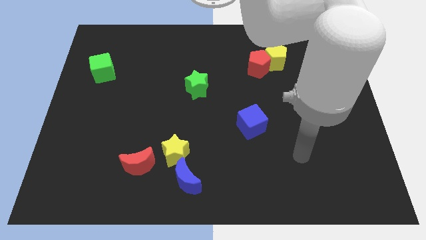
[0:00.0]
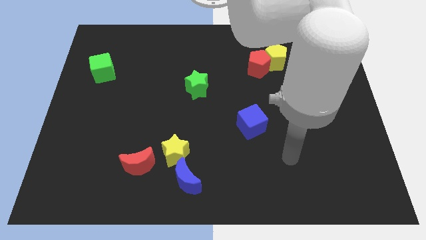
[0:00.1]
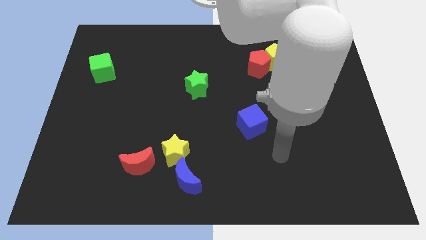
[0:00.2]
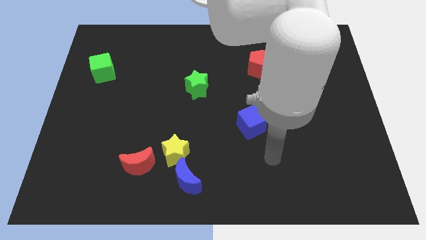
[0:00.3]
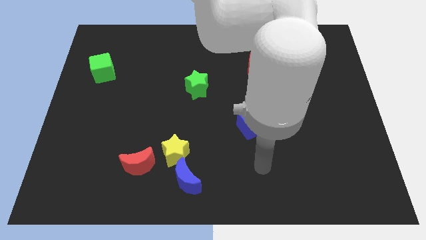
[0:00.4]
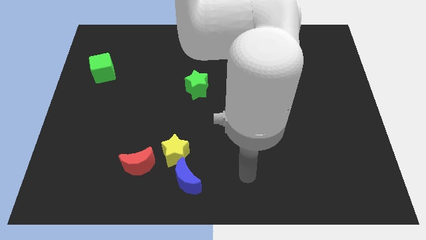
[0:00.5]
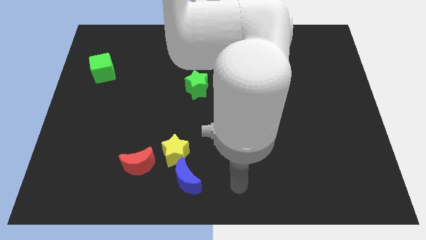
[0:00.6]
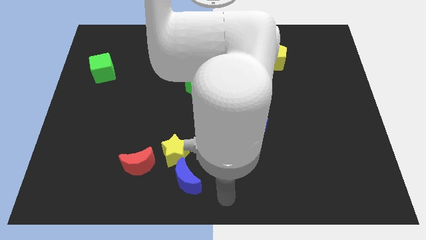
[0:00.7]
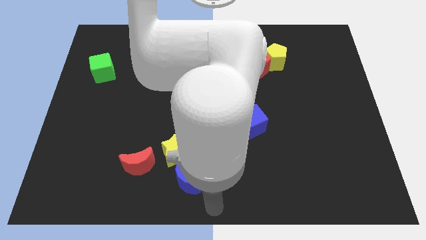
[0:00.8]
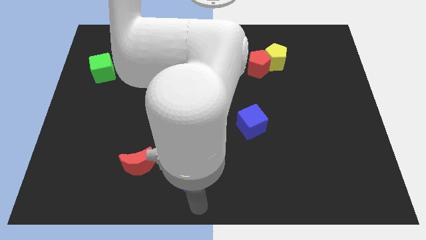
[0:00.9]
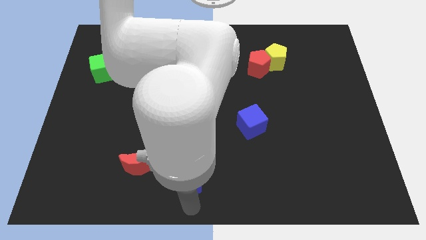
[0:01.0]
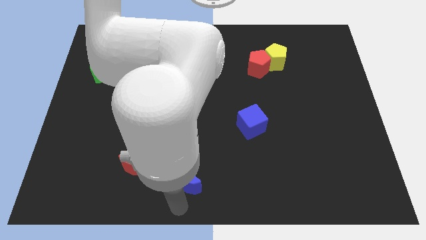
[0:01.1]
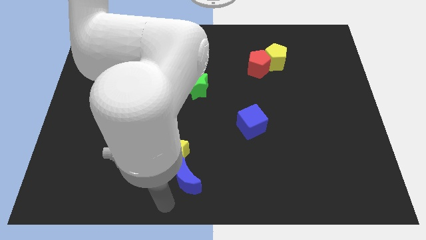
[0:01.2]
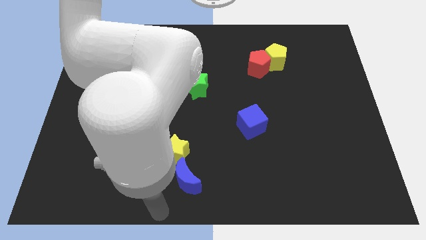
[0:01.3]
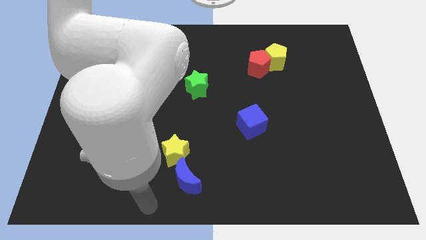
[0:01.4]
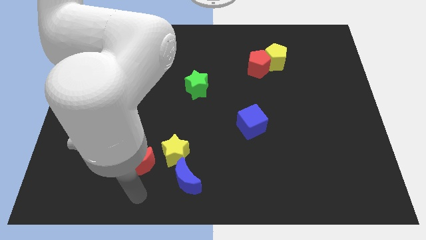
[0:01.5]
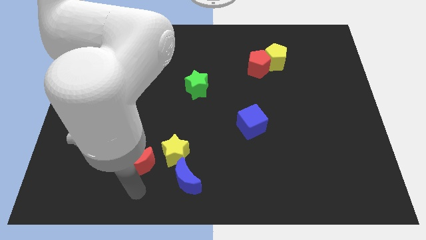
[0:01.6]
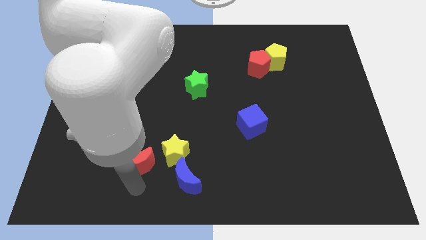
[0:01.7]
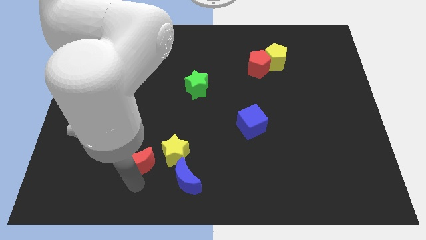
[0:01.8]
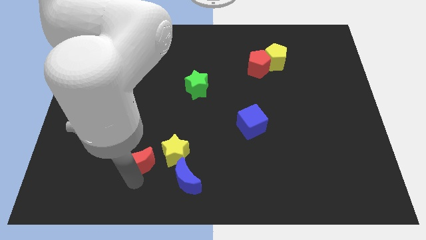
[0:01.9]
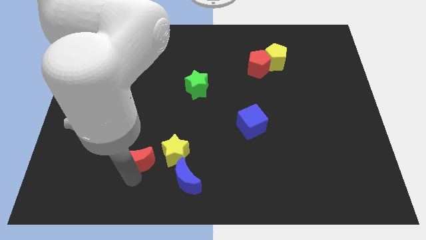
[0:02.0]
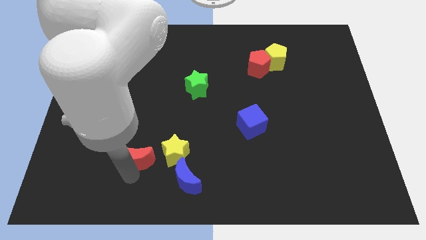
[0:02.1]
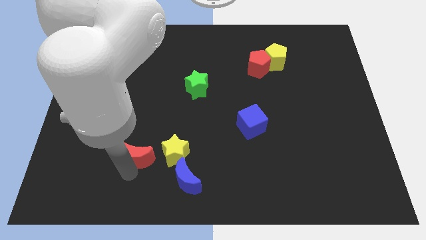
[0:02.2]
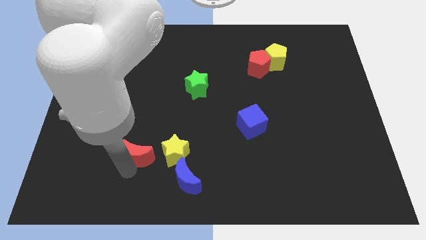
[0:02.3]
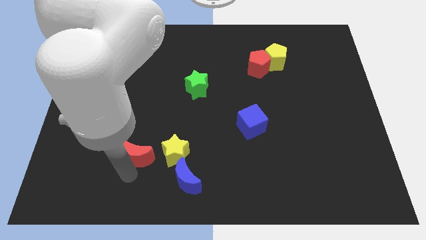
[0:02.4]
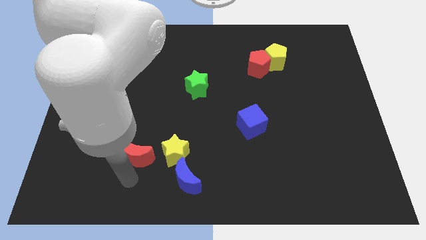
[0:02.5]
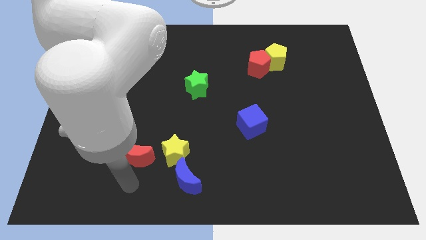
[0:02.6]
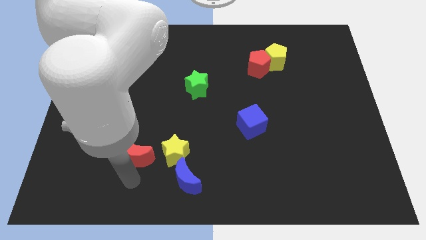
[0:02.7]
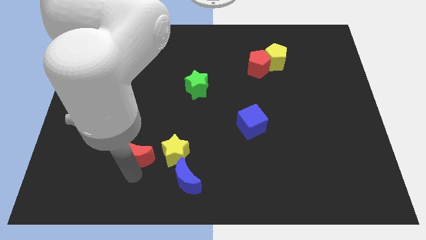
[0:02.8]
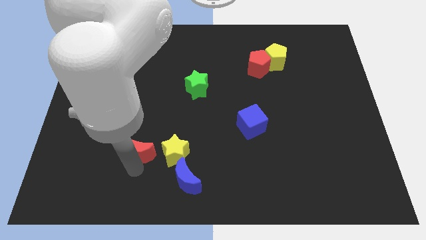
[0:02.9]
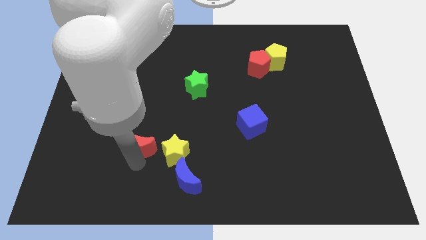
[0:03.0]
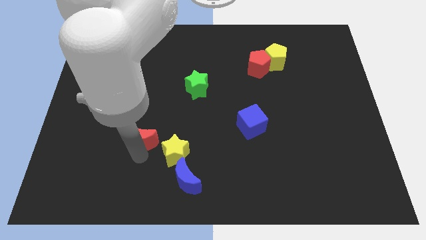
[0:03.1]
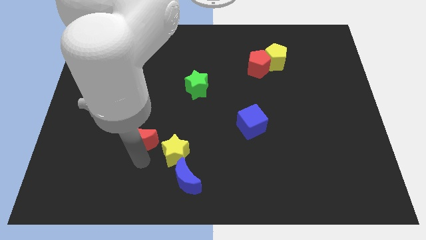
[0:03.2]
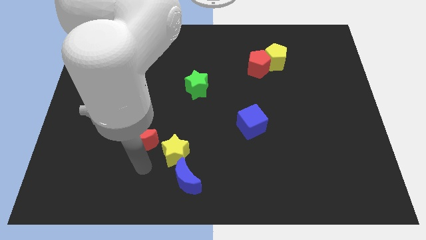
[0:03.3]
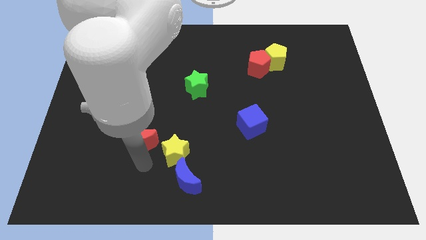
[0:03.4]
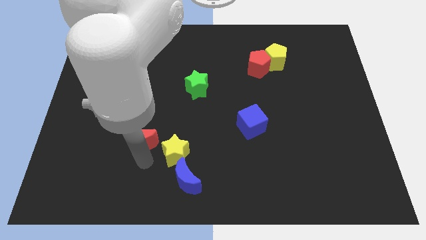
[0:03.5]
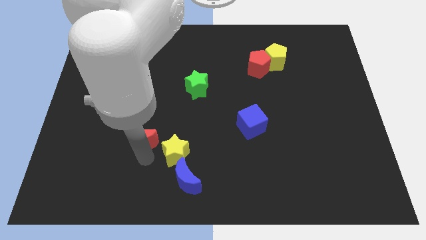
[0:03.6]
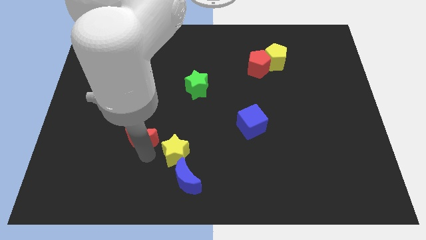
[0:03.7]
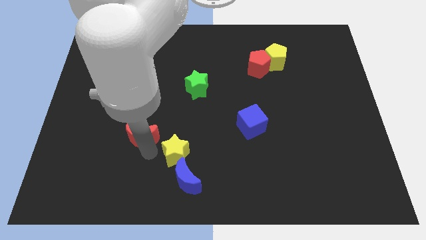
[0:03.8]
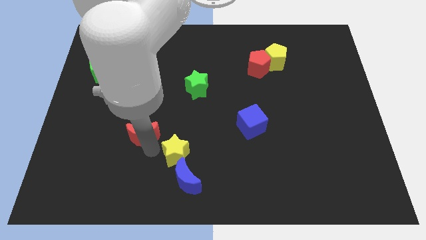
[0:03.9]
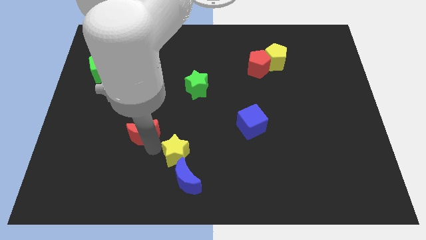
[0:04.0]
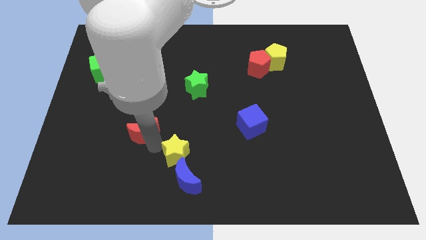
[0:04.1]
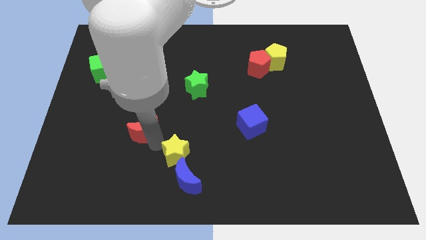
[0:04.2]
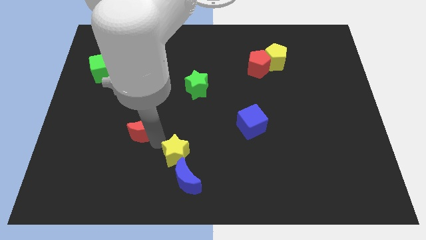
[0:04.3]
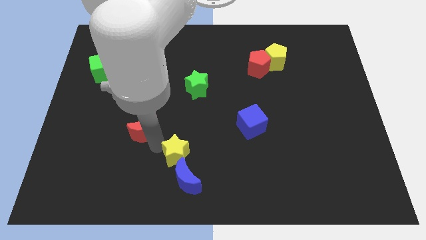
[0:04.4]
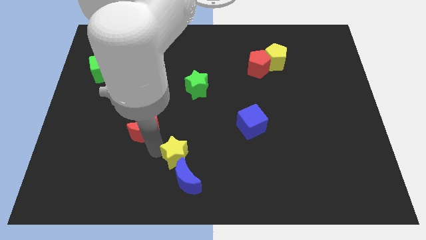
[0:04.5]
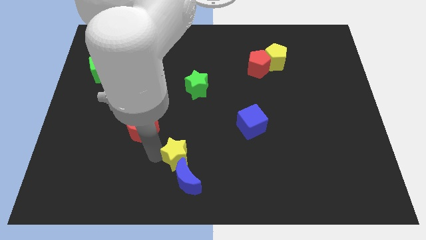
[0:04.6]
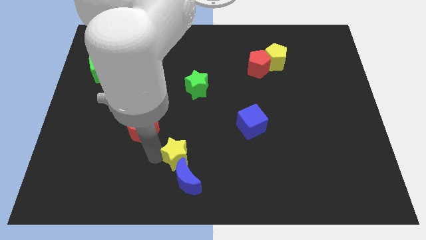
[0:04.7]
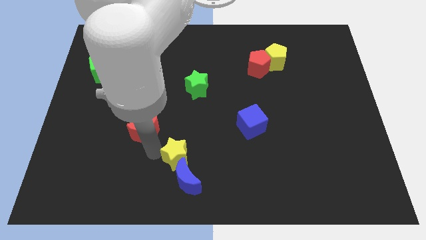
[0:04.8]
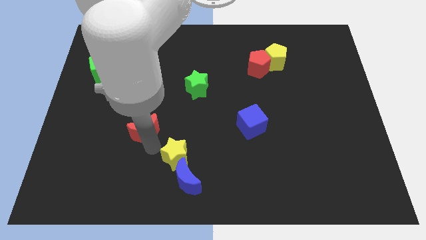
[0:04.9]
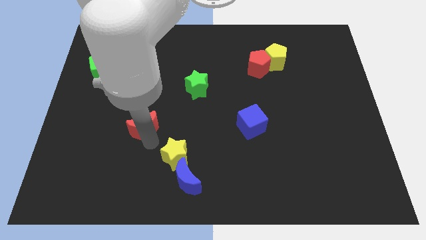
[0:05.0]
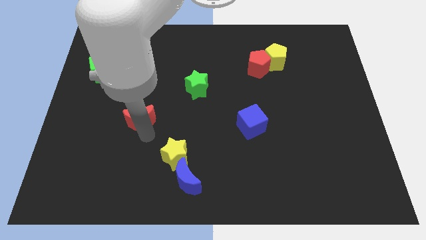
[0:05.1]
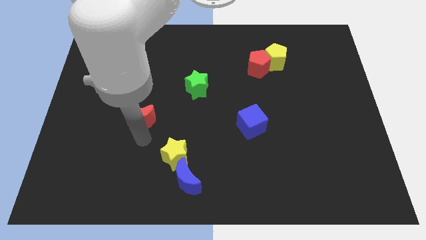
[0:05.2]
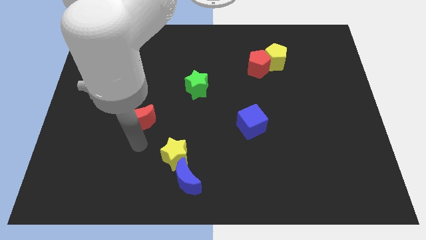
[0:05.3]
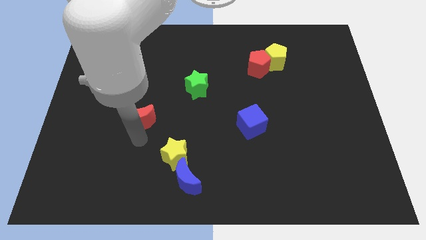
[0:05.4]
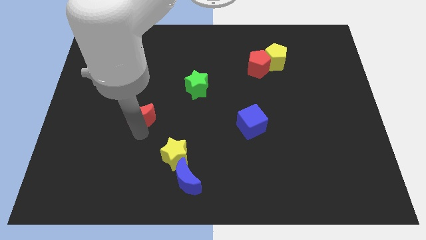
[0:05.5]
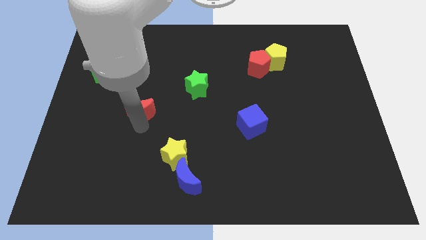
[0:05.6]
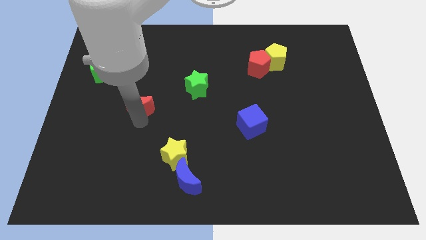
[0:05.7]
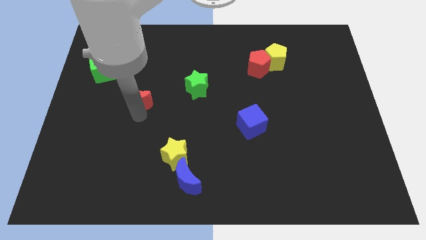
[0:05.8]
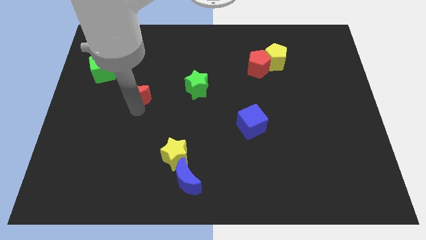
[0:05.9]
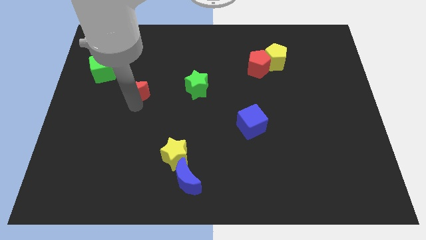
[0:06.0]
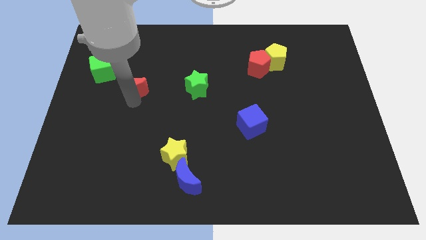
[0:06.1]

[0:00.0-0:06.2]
slide the red moon upwards

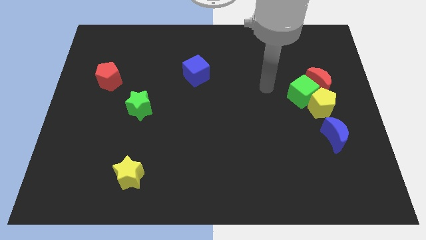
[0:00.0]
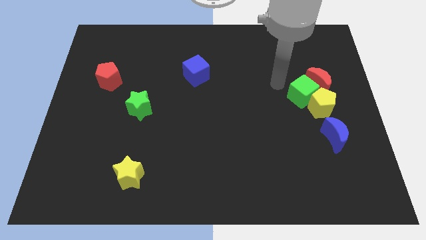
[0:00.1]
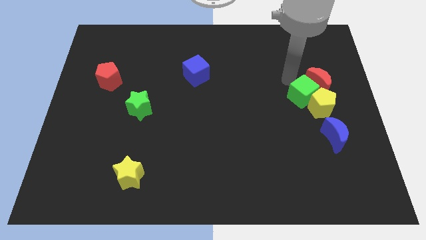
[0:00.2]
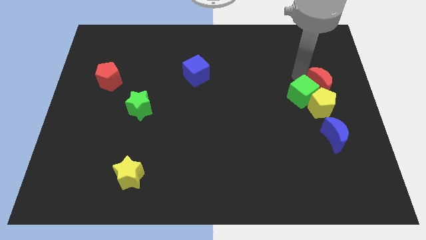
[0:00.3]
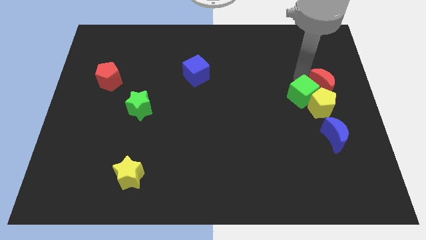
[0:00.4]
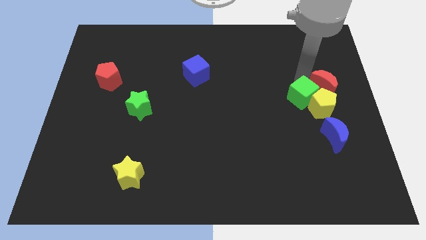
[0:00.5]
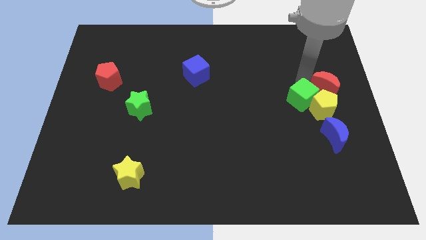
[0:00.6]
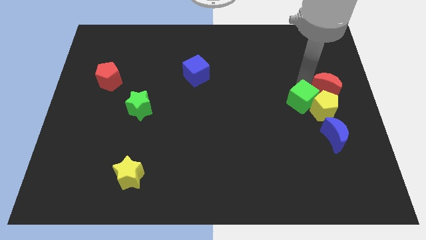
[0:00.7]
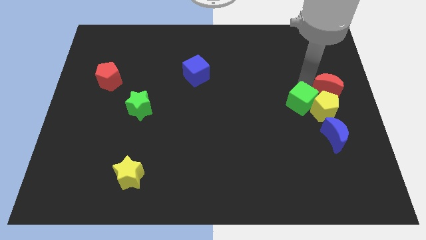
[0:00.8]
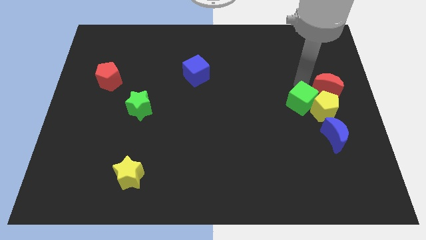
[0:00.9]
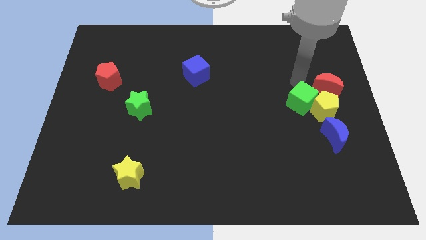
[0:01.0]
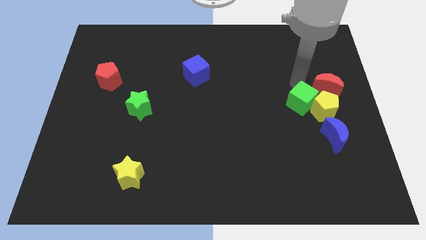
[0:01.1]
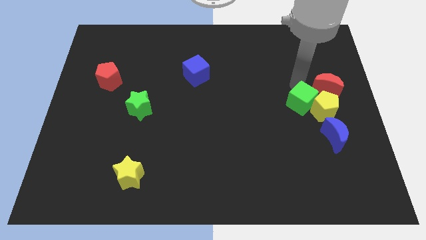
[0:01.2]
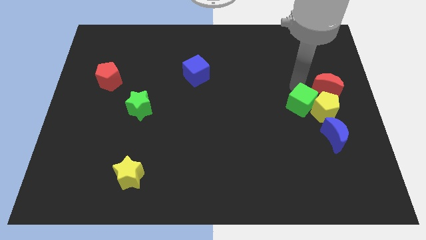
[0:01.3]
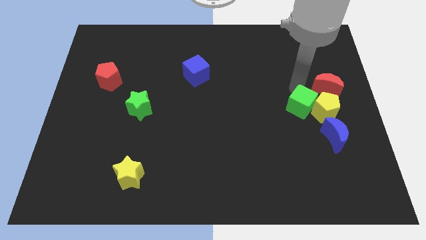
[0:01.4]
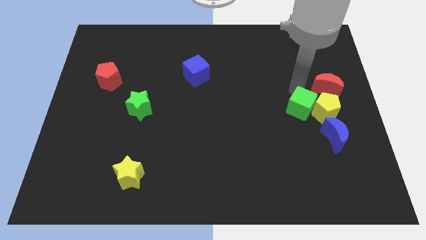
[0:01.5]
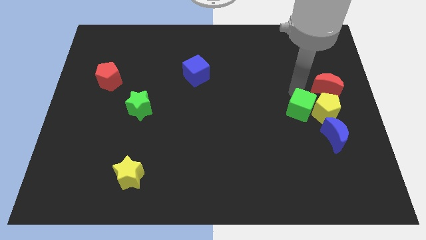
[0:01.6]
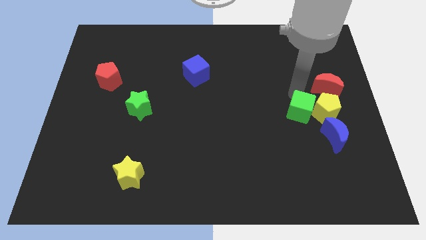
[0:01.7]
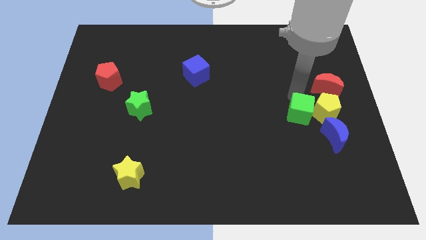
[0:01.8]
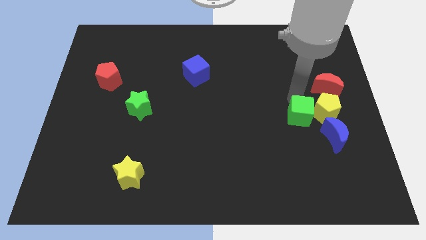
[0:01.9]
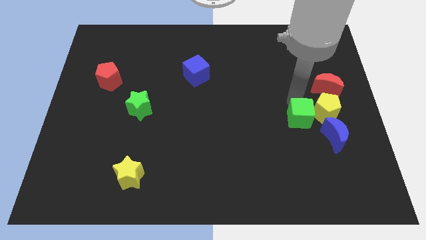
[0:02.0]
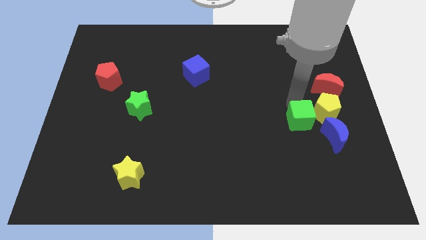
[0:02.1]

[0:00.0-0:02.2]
move the green cube a little downwards
